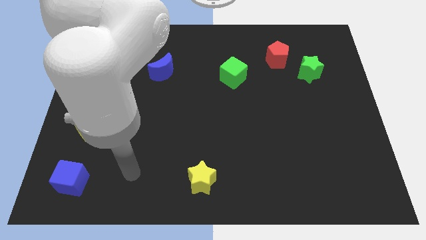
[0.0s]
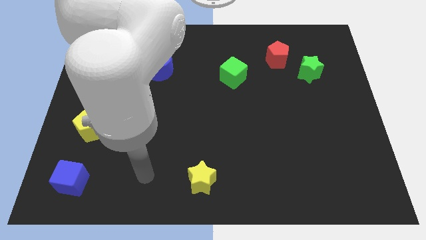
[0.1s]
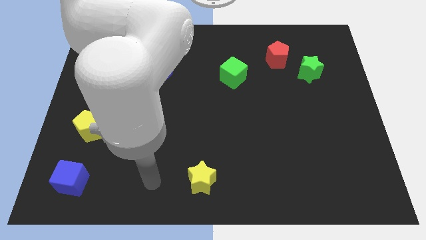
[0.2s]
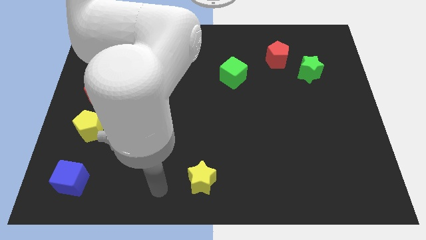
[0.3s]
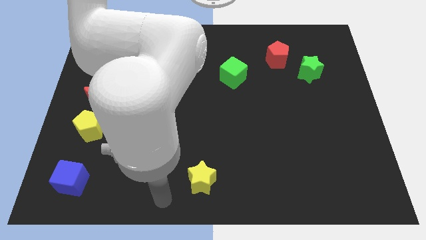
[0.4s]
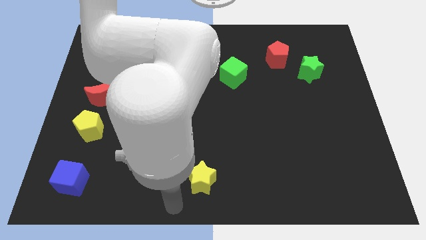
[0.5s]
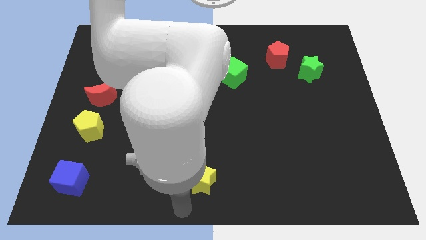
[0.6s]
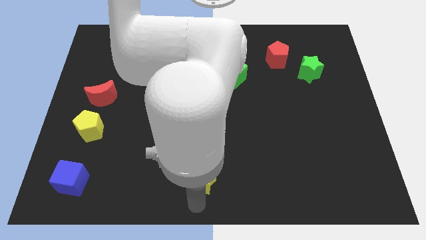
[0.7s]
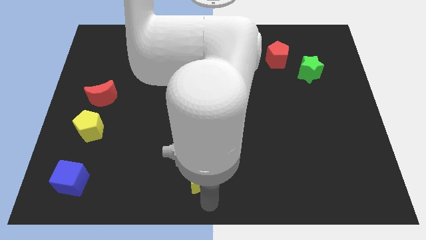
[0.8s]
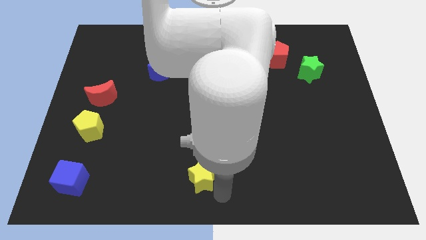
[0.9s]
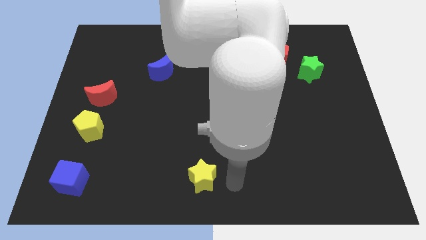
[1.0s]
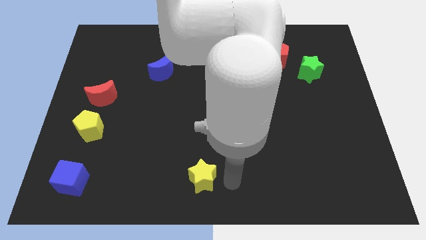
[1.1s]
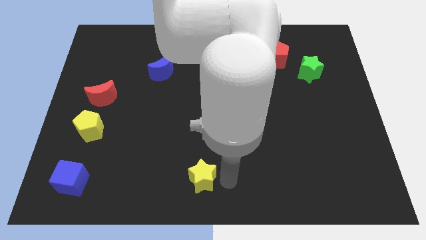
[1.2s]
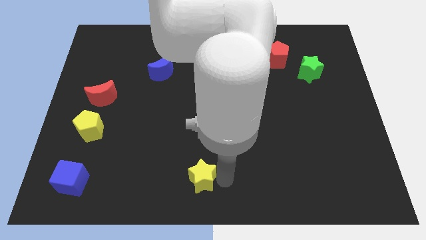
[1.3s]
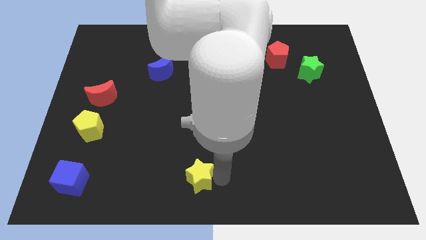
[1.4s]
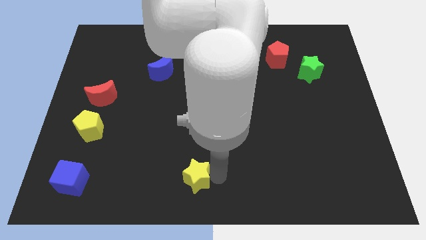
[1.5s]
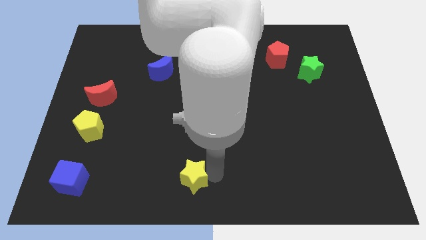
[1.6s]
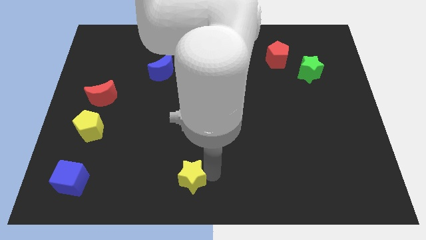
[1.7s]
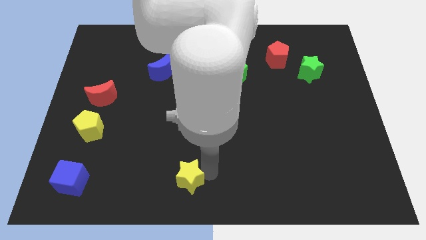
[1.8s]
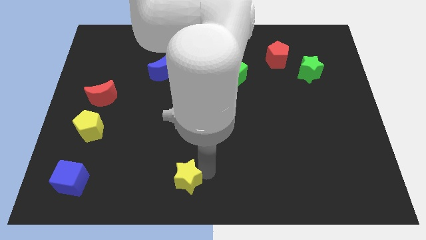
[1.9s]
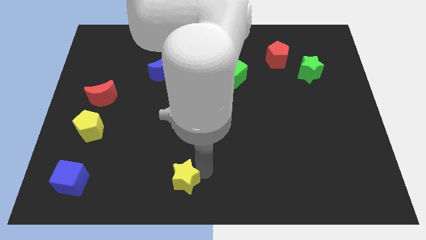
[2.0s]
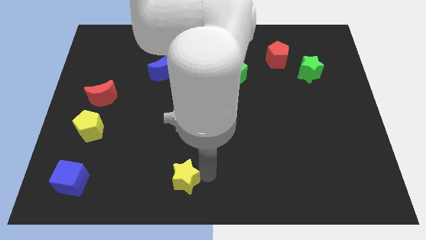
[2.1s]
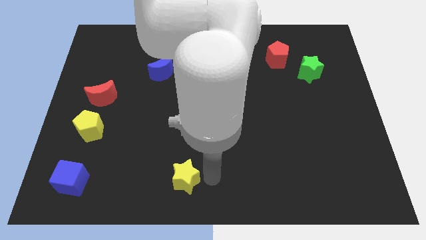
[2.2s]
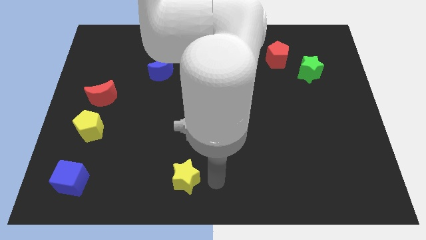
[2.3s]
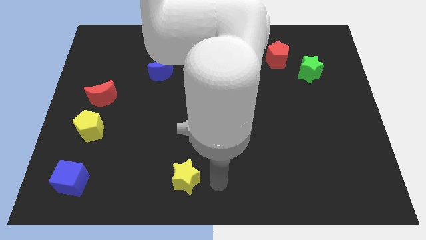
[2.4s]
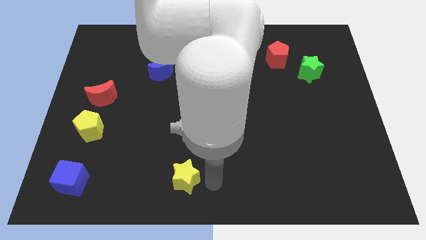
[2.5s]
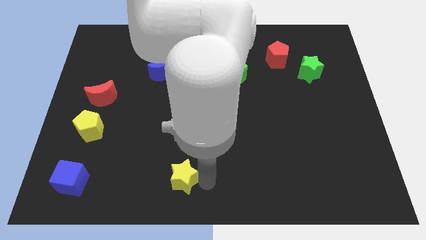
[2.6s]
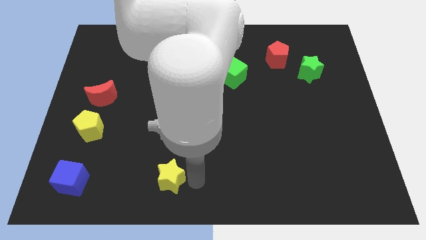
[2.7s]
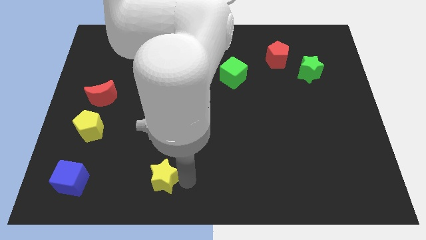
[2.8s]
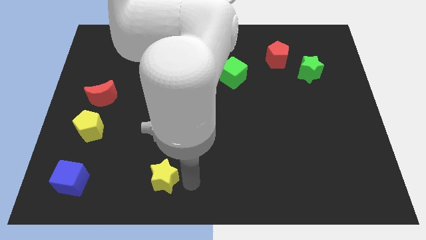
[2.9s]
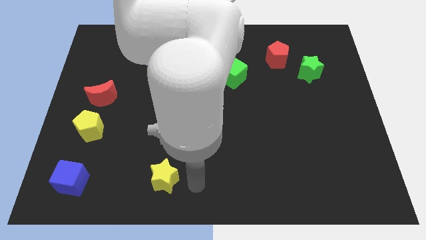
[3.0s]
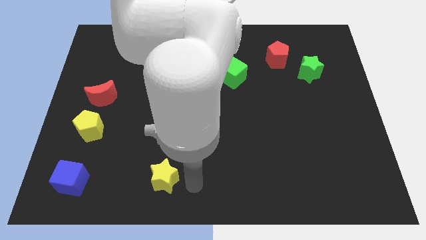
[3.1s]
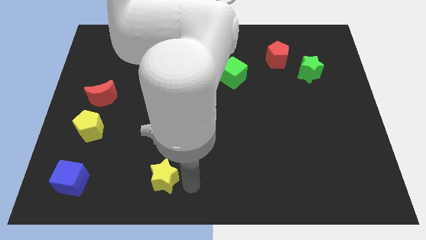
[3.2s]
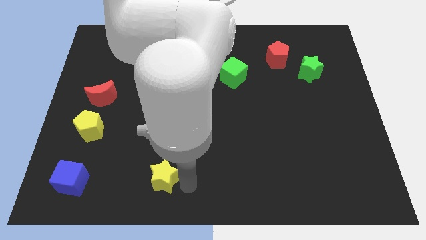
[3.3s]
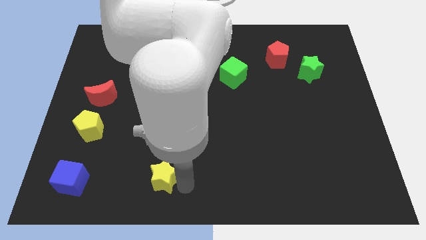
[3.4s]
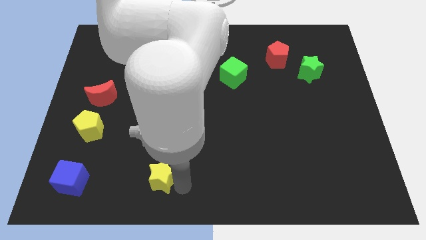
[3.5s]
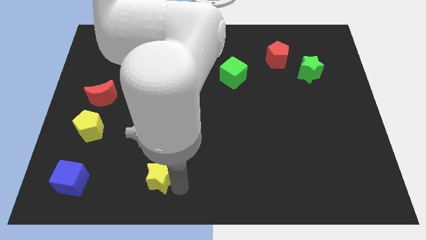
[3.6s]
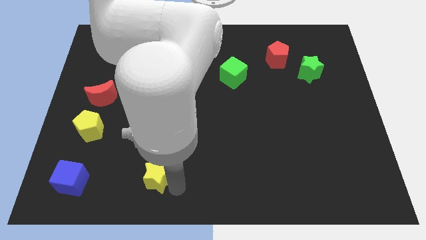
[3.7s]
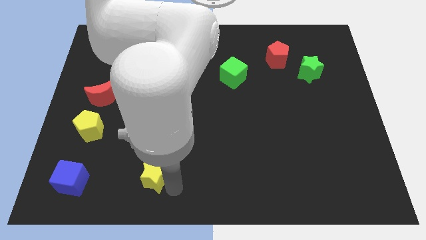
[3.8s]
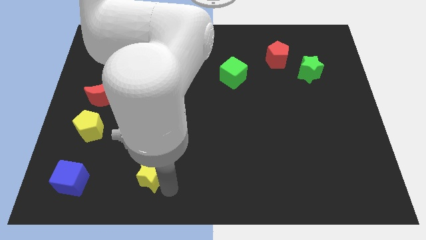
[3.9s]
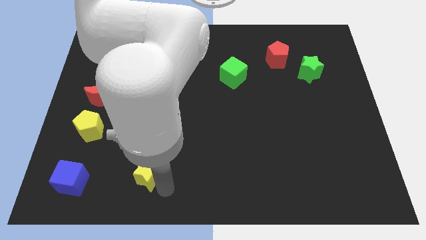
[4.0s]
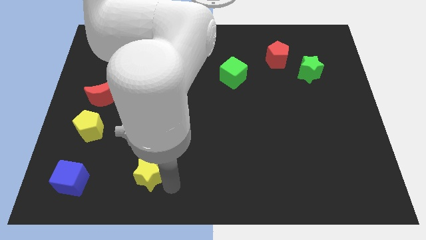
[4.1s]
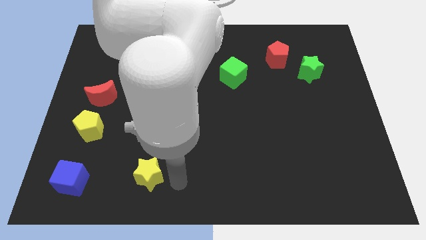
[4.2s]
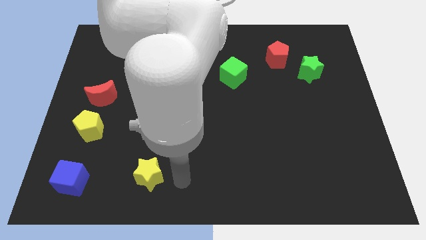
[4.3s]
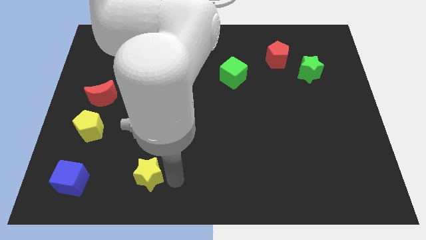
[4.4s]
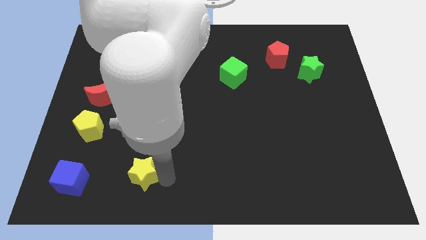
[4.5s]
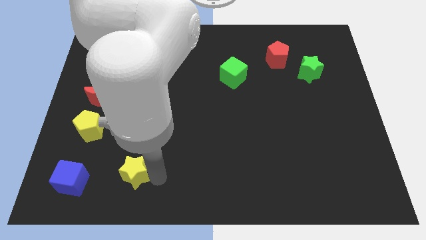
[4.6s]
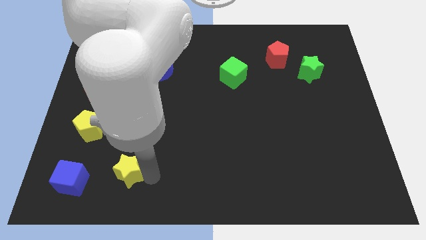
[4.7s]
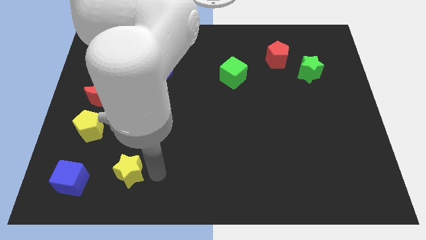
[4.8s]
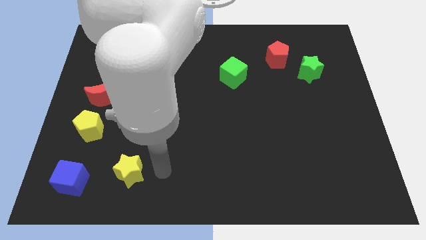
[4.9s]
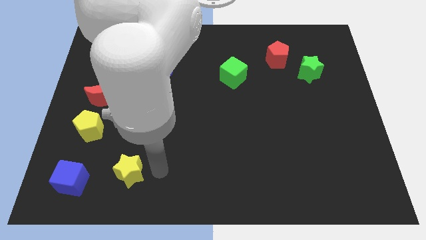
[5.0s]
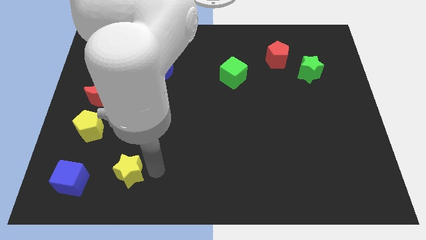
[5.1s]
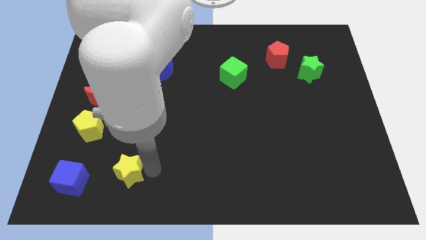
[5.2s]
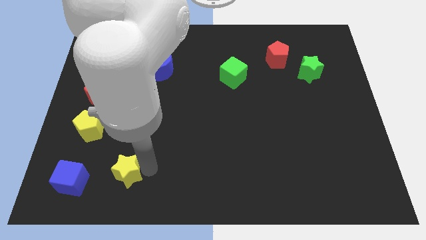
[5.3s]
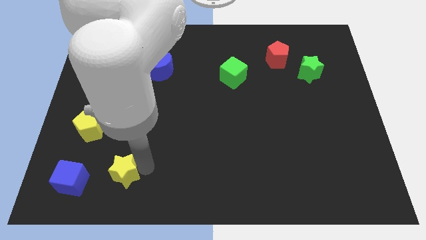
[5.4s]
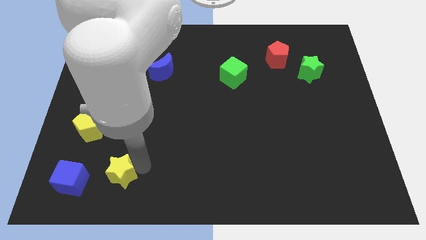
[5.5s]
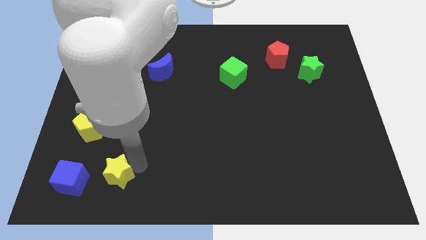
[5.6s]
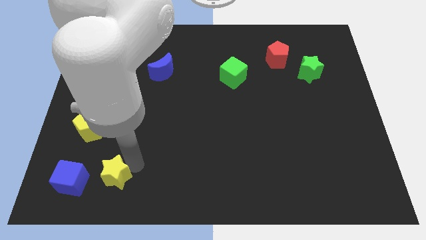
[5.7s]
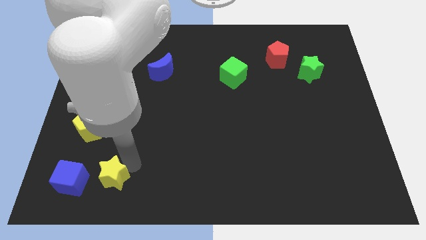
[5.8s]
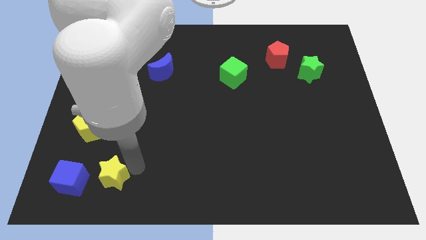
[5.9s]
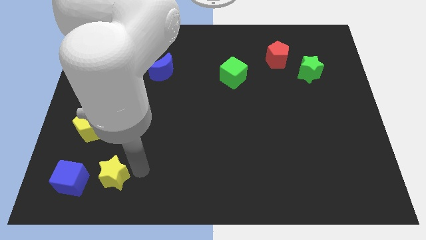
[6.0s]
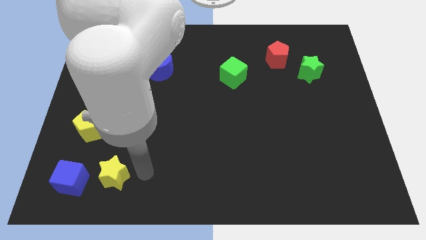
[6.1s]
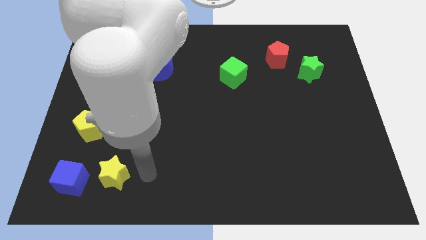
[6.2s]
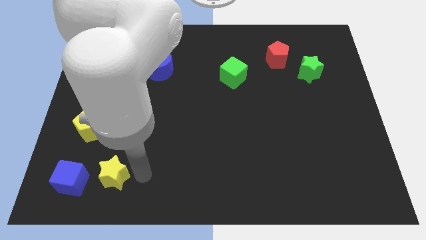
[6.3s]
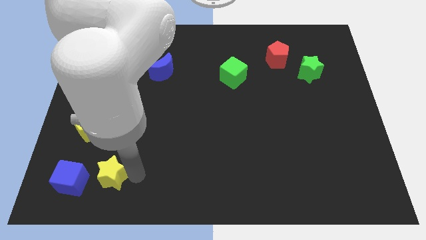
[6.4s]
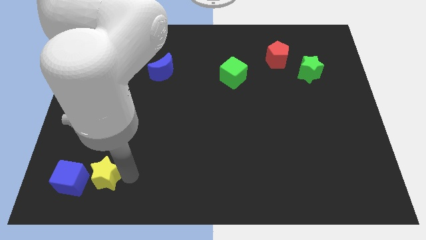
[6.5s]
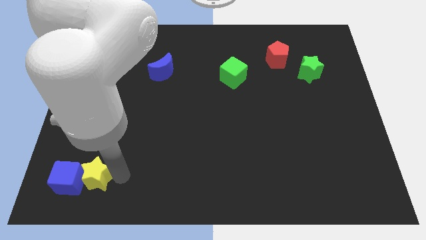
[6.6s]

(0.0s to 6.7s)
push the yellow star close to the blue cube

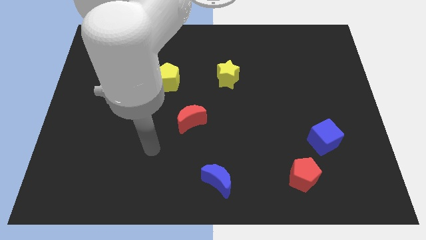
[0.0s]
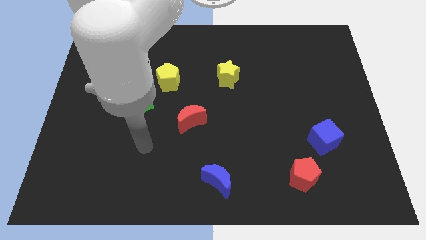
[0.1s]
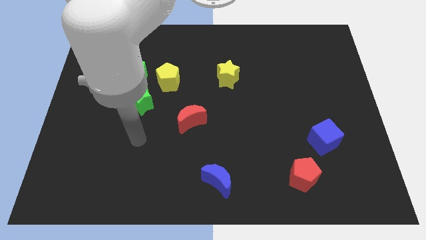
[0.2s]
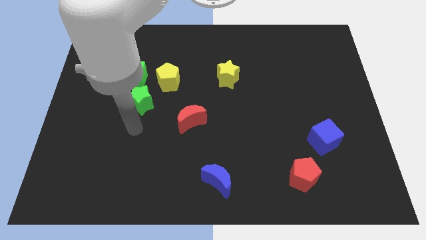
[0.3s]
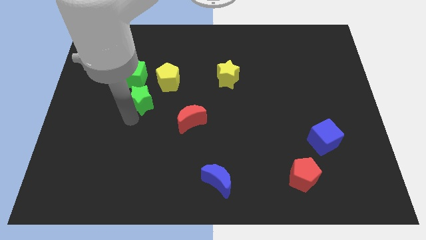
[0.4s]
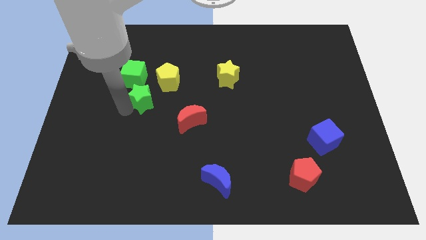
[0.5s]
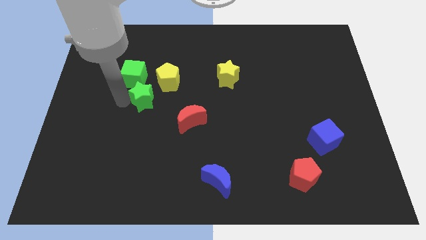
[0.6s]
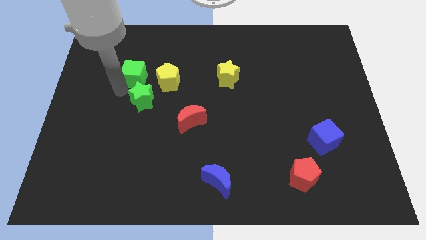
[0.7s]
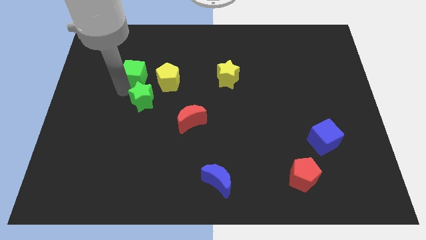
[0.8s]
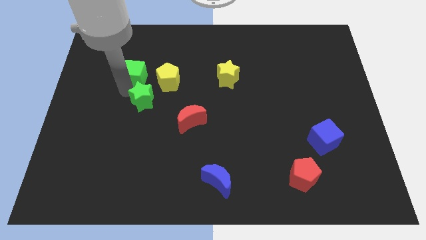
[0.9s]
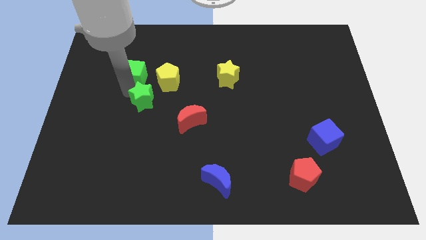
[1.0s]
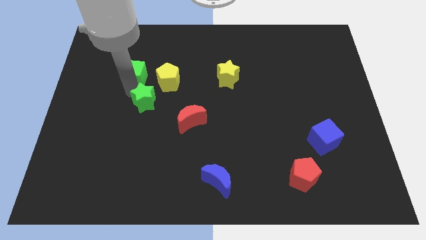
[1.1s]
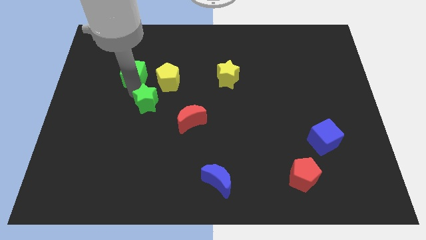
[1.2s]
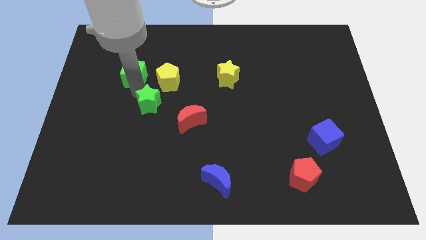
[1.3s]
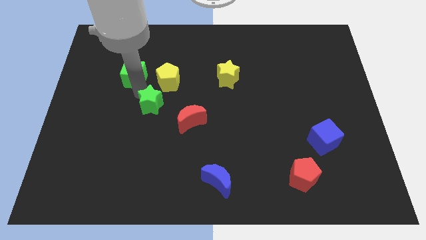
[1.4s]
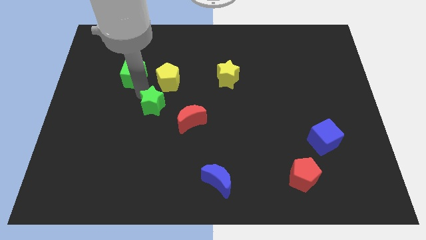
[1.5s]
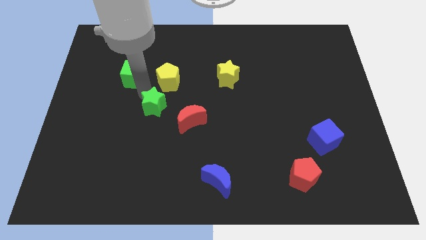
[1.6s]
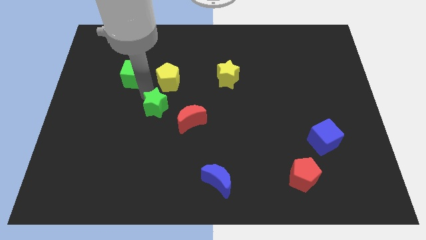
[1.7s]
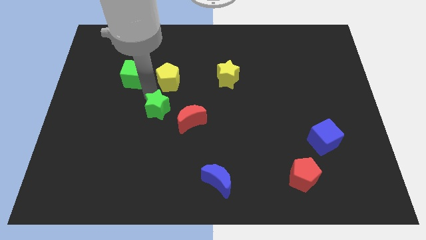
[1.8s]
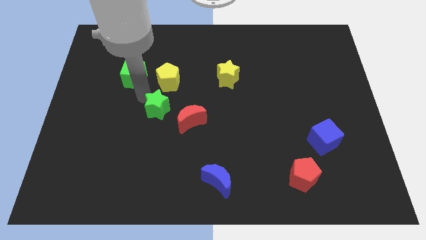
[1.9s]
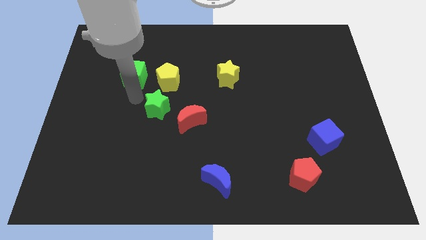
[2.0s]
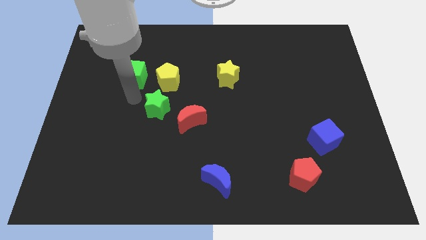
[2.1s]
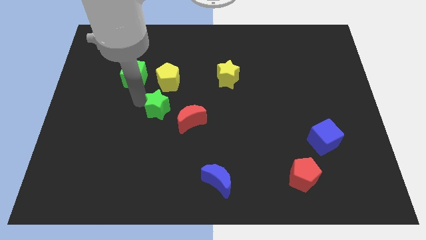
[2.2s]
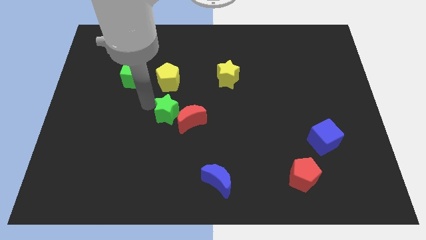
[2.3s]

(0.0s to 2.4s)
move the green star towards the red moon
